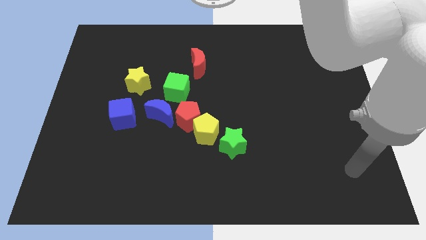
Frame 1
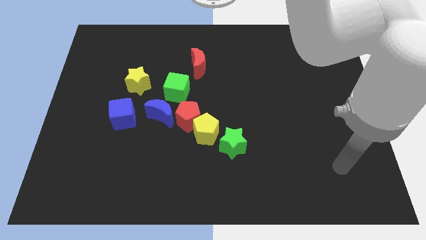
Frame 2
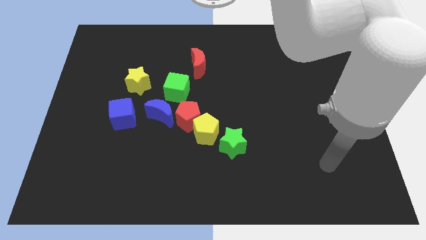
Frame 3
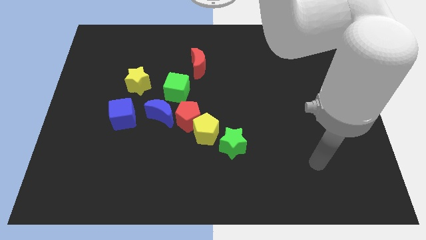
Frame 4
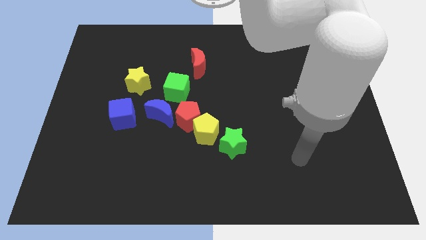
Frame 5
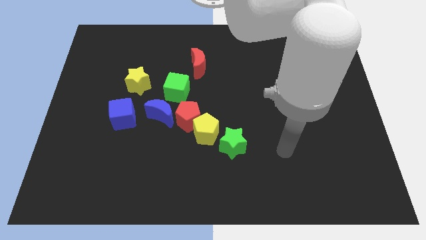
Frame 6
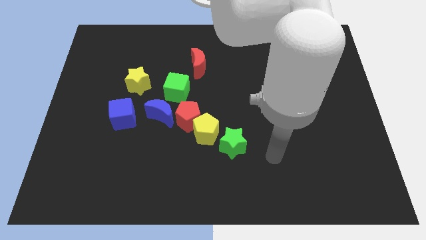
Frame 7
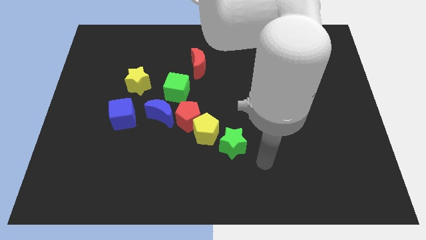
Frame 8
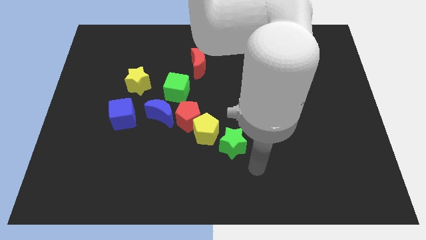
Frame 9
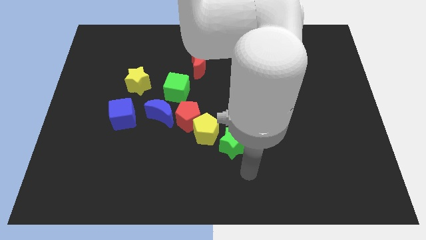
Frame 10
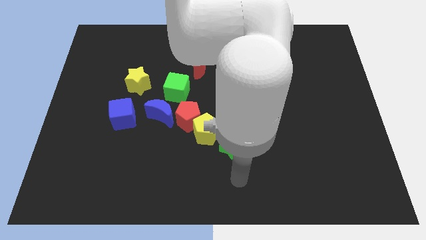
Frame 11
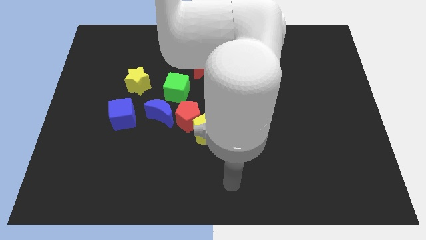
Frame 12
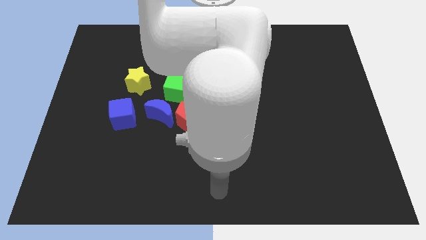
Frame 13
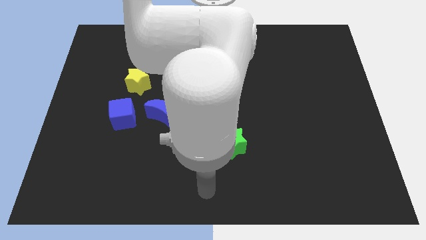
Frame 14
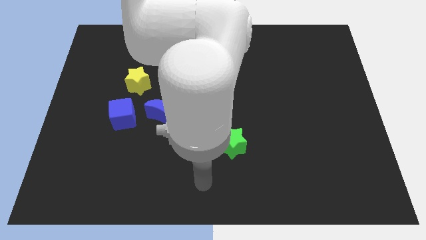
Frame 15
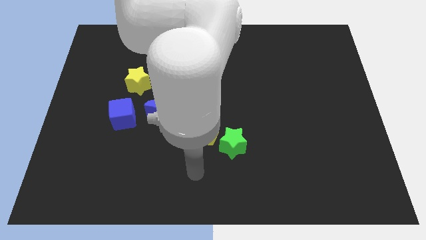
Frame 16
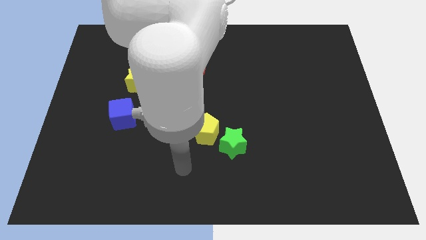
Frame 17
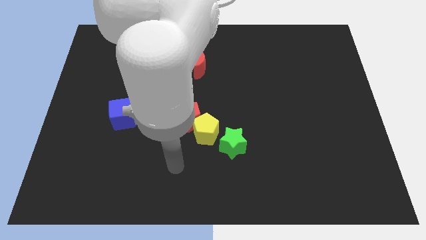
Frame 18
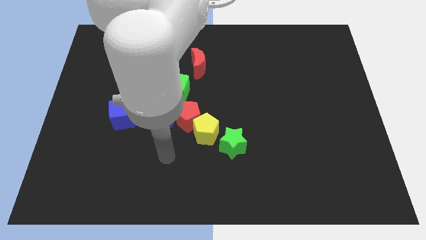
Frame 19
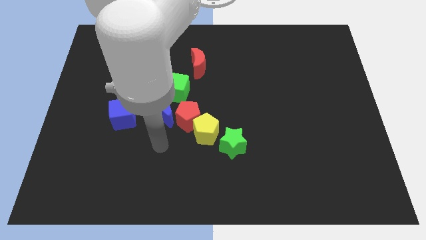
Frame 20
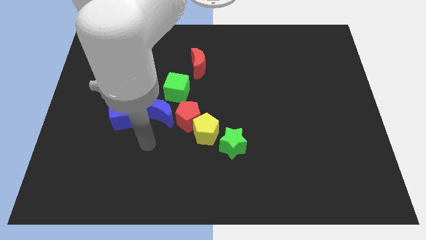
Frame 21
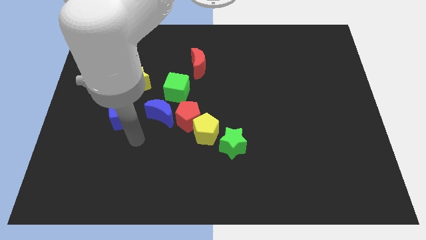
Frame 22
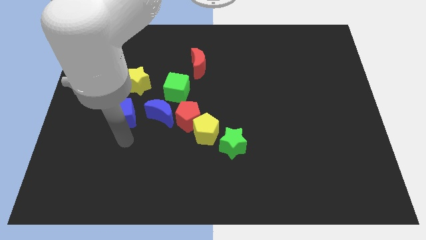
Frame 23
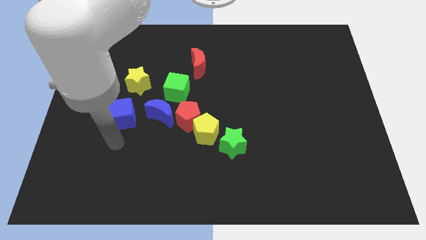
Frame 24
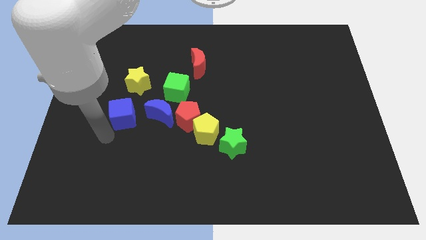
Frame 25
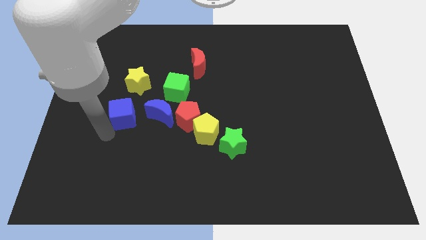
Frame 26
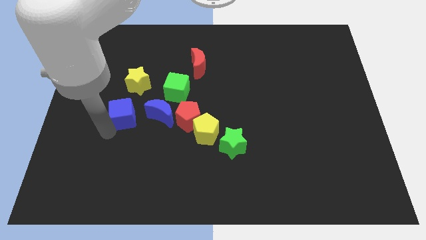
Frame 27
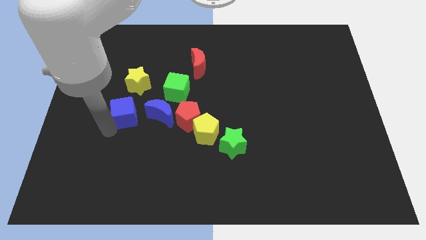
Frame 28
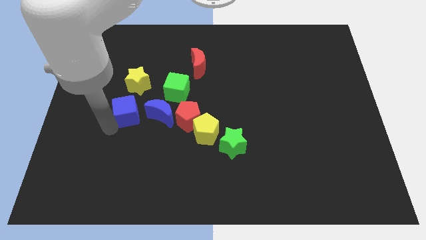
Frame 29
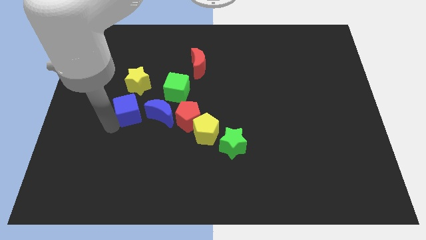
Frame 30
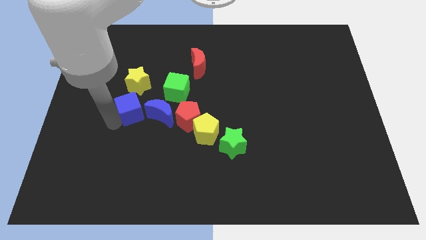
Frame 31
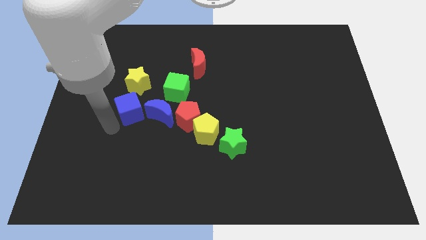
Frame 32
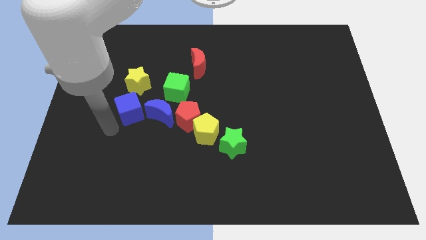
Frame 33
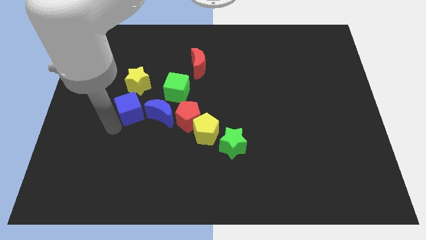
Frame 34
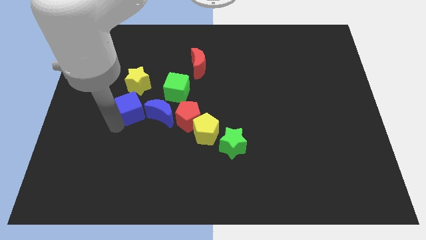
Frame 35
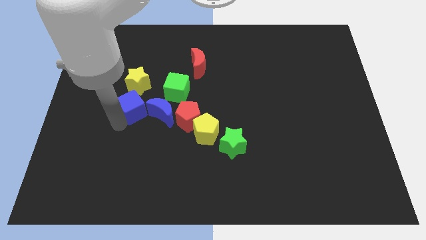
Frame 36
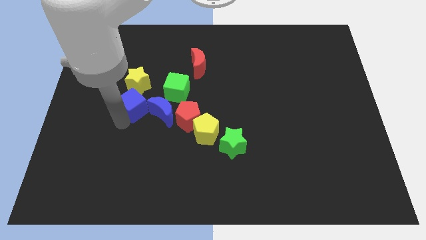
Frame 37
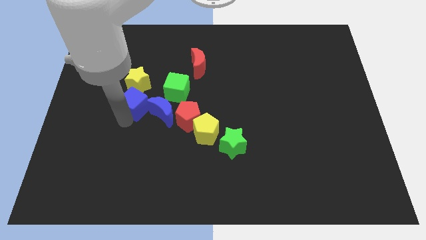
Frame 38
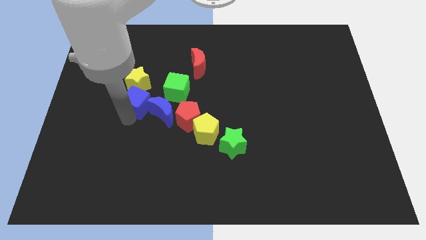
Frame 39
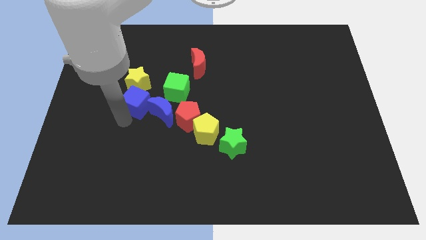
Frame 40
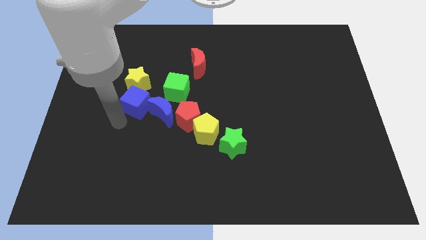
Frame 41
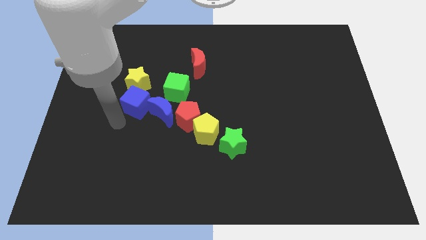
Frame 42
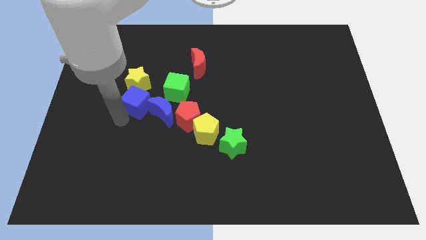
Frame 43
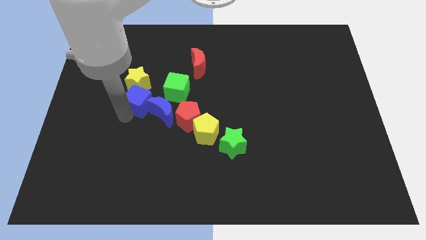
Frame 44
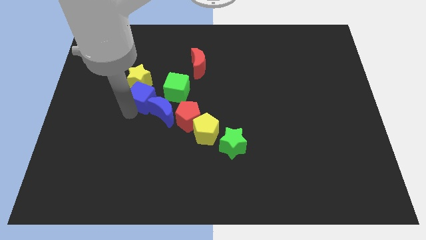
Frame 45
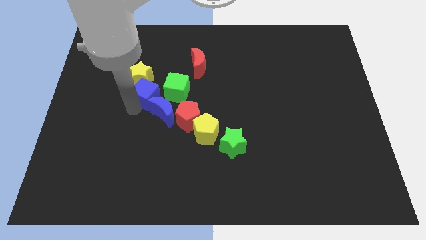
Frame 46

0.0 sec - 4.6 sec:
slightly move the blue cube up and to the right

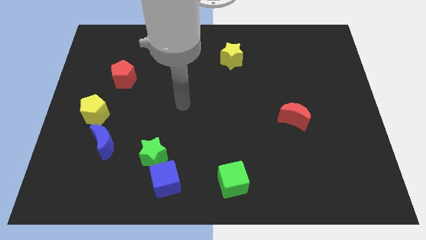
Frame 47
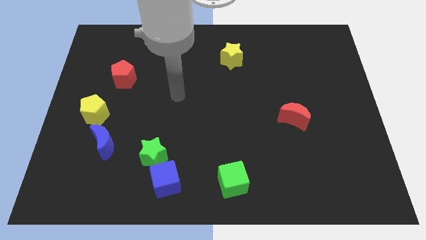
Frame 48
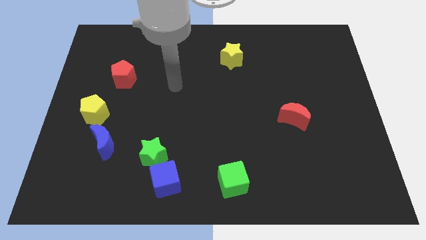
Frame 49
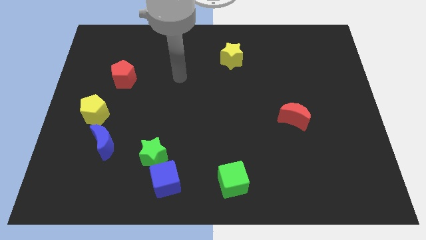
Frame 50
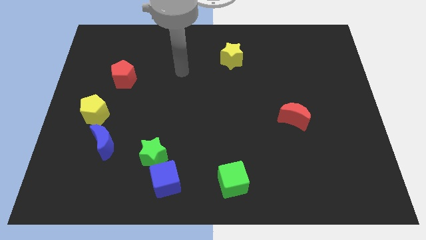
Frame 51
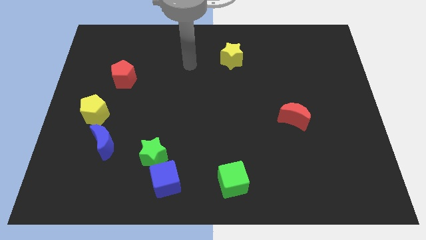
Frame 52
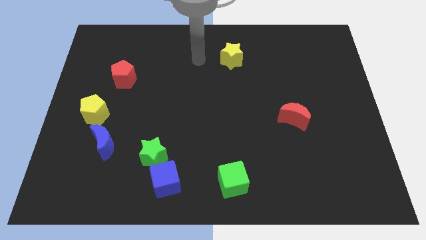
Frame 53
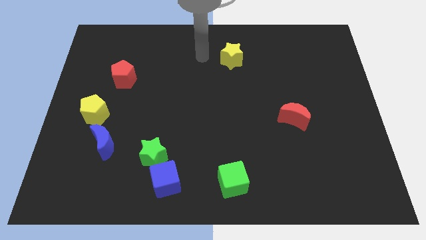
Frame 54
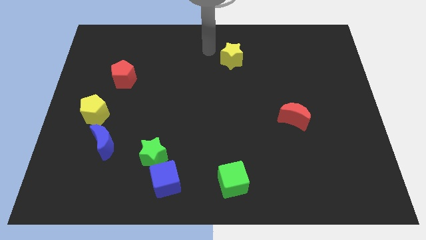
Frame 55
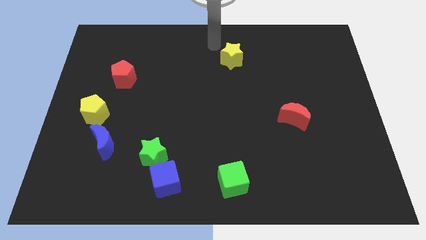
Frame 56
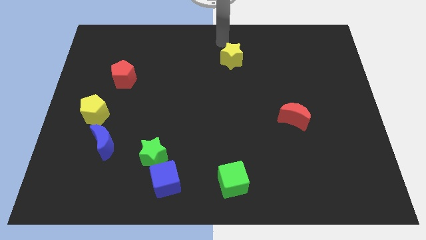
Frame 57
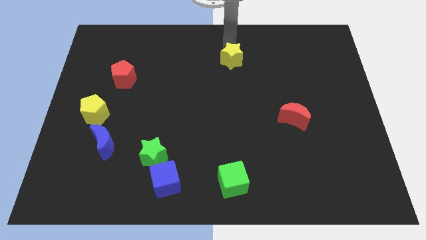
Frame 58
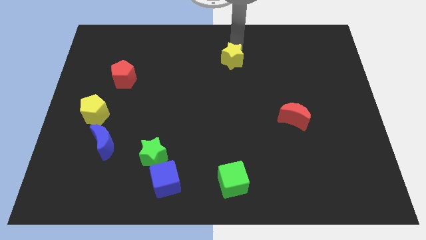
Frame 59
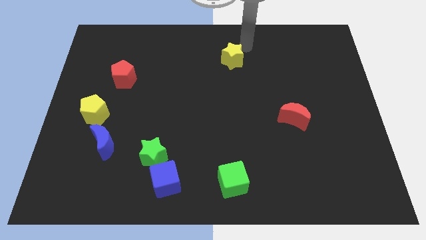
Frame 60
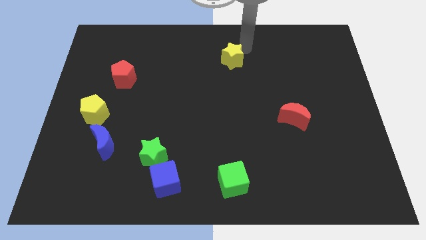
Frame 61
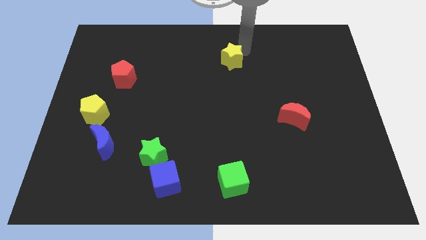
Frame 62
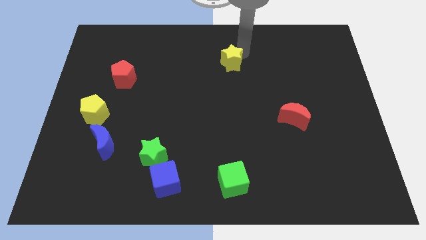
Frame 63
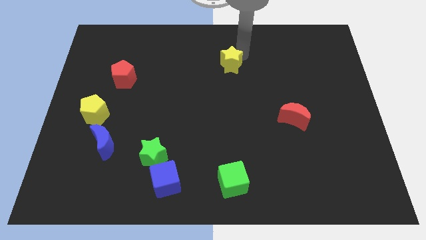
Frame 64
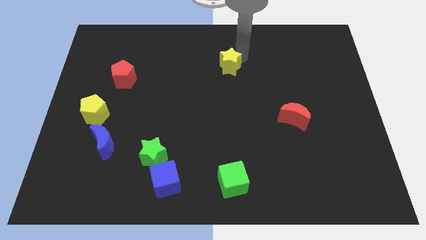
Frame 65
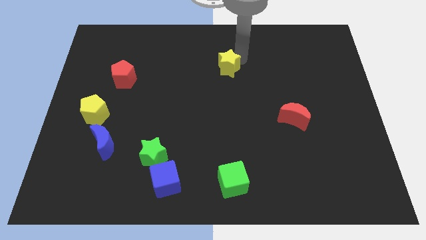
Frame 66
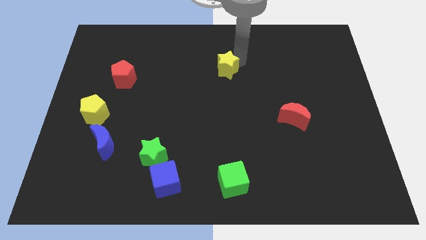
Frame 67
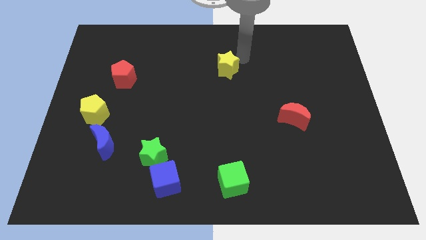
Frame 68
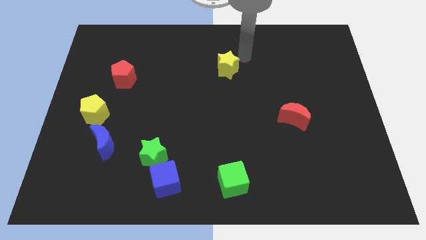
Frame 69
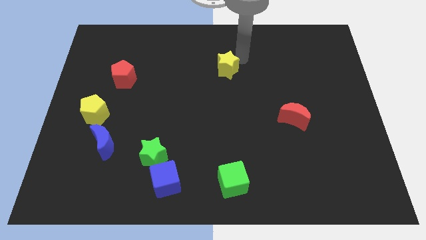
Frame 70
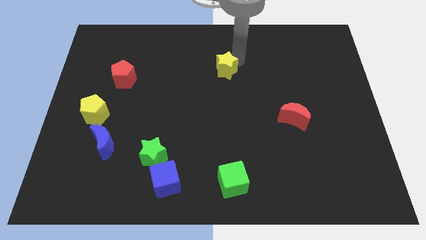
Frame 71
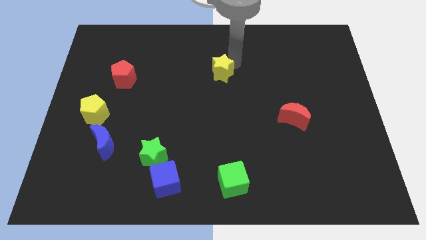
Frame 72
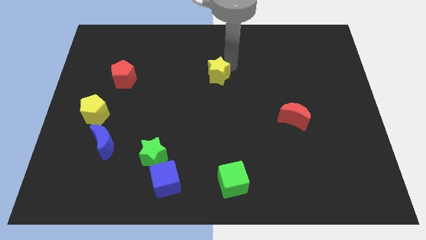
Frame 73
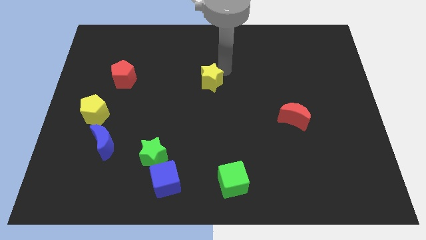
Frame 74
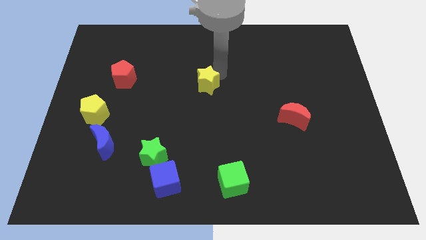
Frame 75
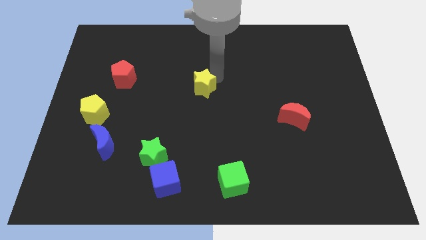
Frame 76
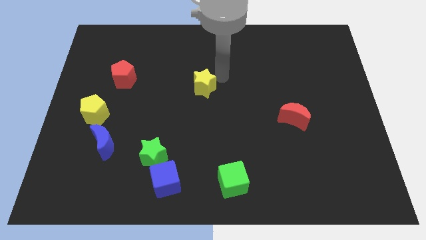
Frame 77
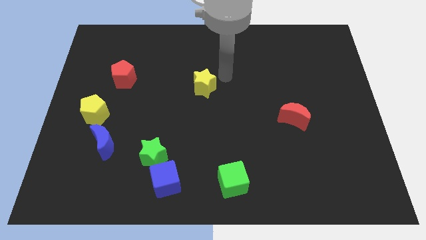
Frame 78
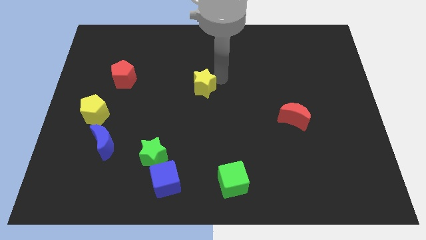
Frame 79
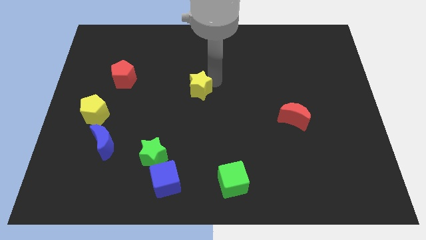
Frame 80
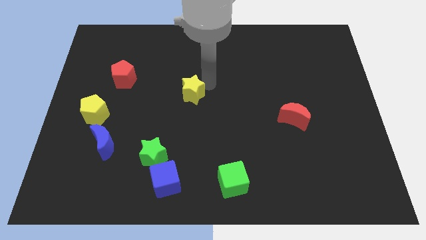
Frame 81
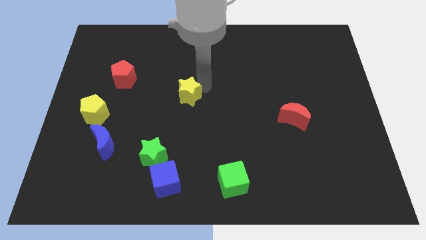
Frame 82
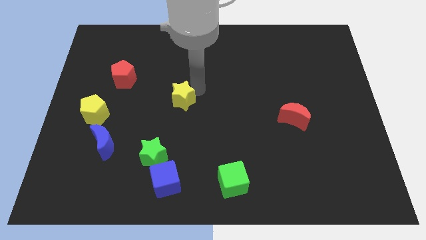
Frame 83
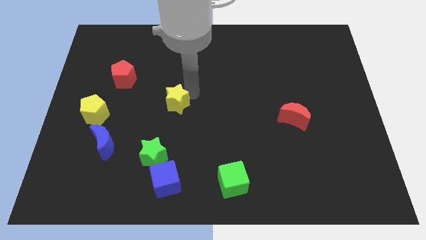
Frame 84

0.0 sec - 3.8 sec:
push the yellow star downwards and to the left
